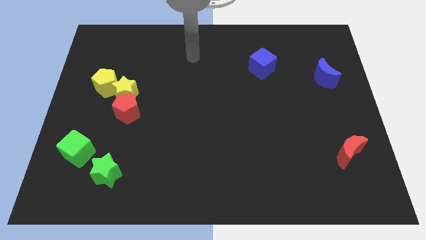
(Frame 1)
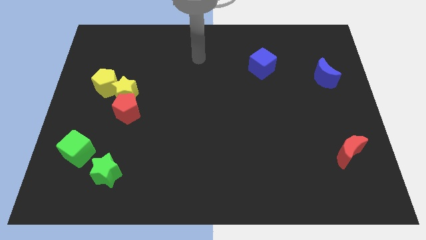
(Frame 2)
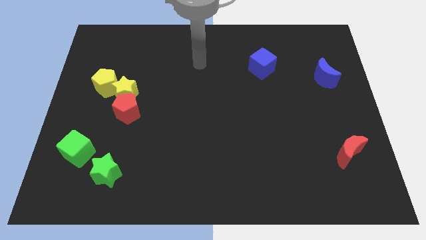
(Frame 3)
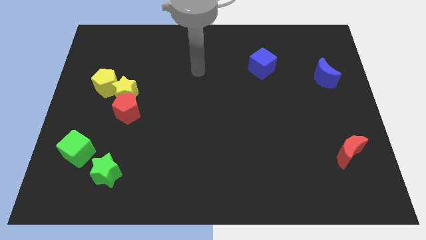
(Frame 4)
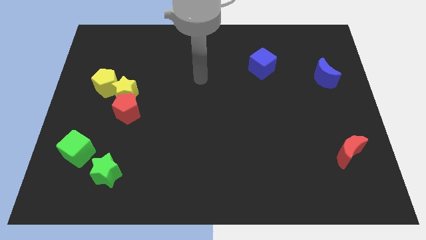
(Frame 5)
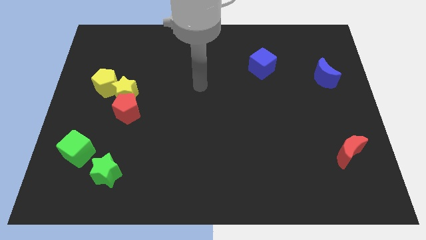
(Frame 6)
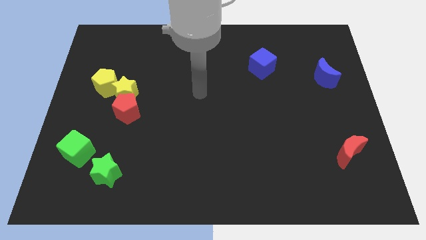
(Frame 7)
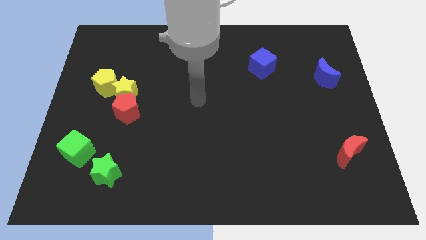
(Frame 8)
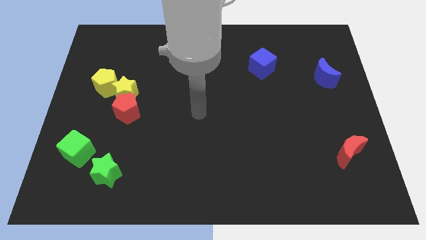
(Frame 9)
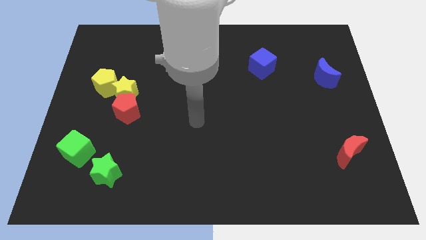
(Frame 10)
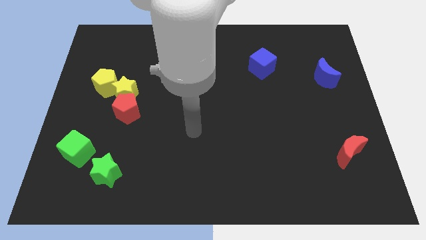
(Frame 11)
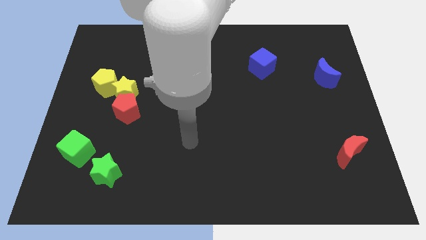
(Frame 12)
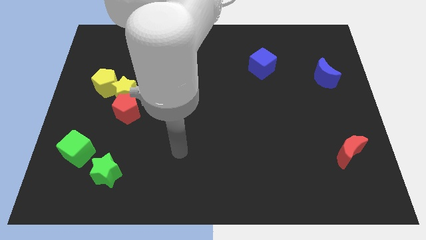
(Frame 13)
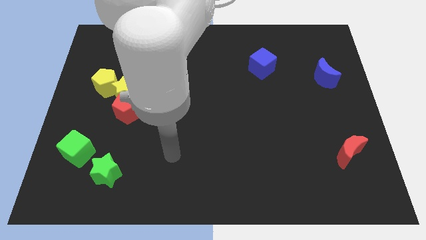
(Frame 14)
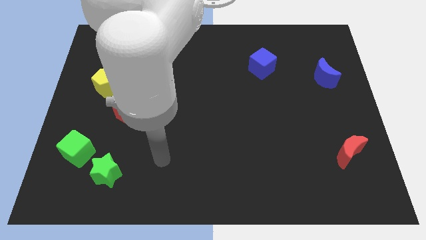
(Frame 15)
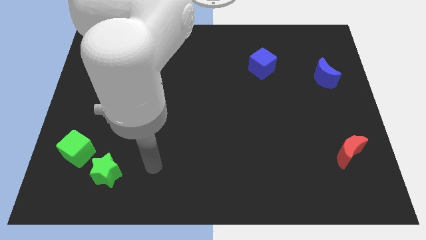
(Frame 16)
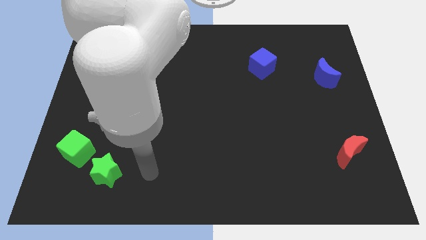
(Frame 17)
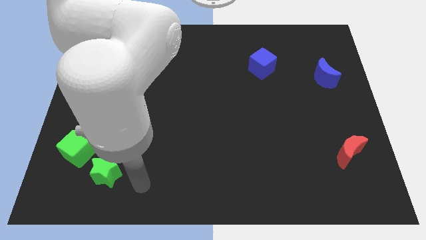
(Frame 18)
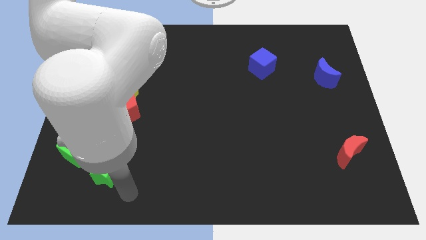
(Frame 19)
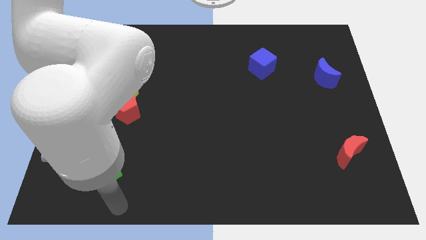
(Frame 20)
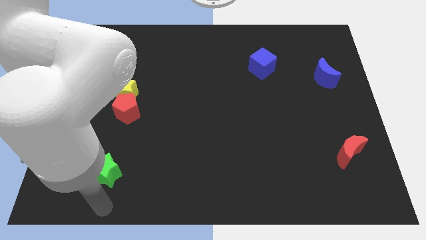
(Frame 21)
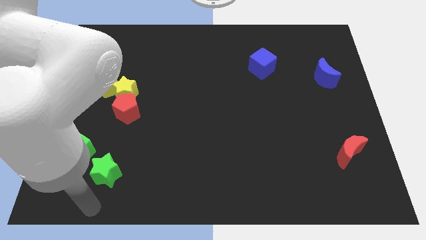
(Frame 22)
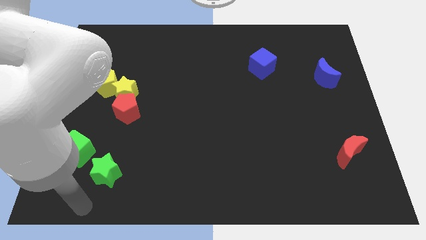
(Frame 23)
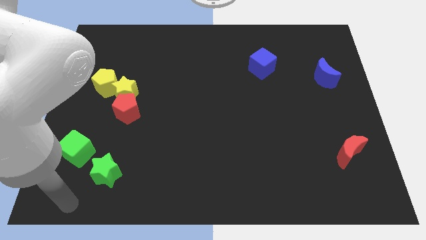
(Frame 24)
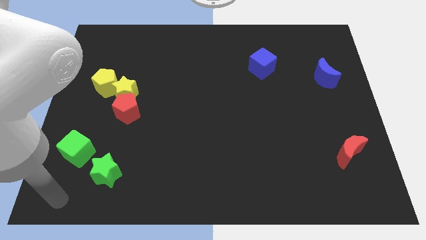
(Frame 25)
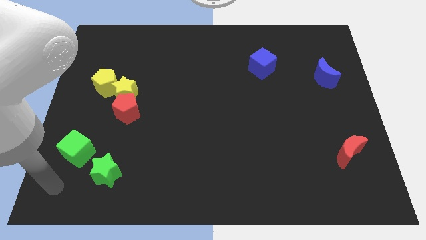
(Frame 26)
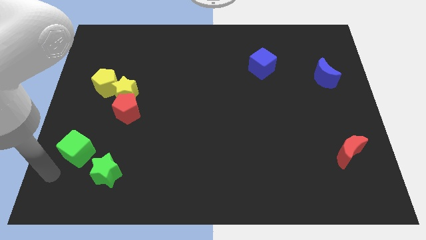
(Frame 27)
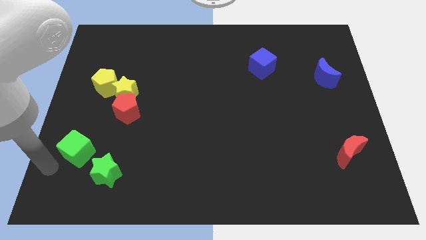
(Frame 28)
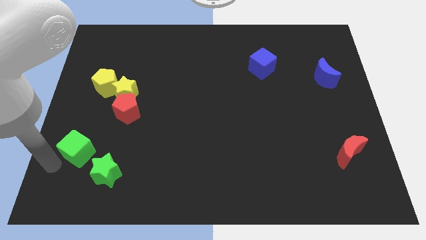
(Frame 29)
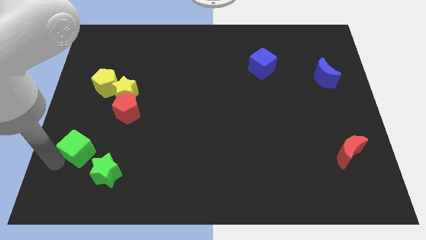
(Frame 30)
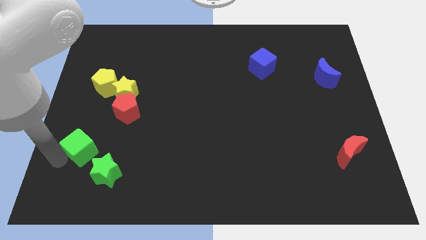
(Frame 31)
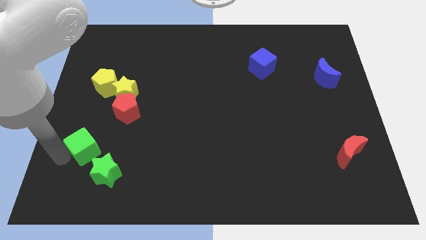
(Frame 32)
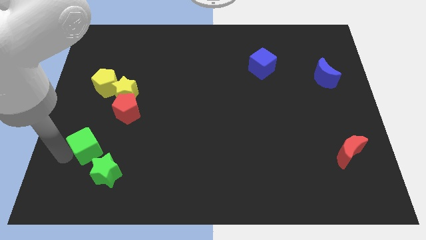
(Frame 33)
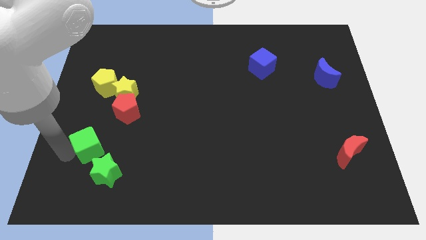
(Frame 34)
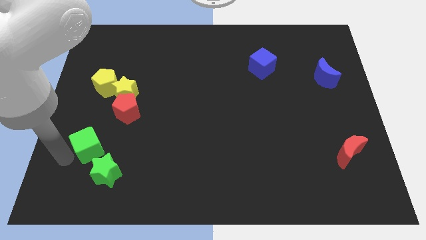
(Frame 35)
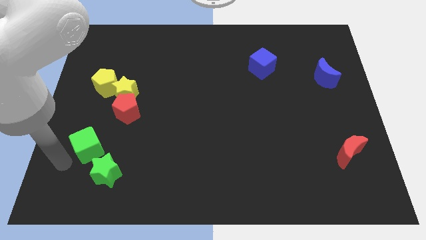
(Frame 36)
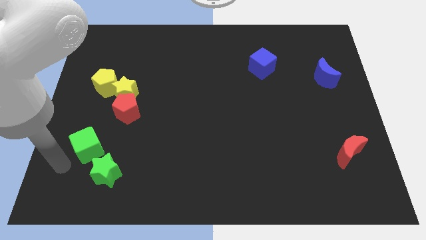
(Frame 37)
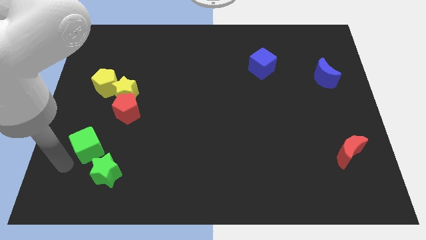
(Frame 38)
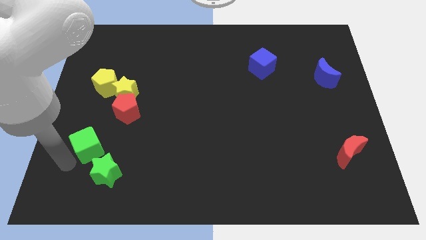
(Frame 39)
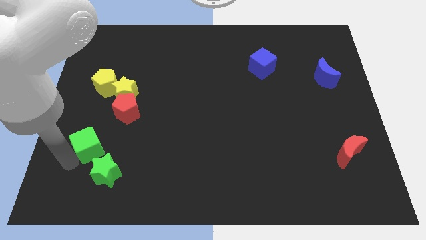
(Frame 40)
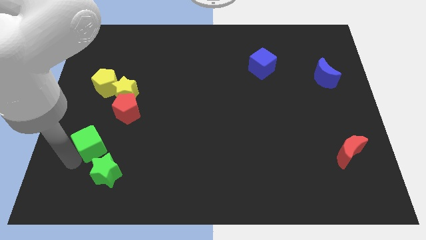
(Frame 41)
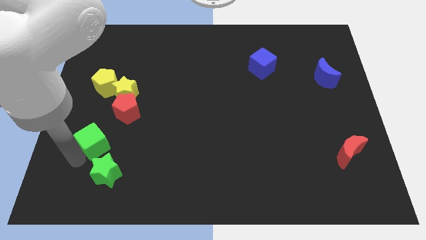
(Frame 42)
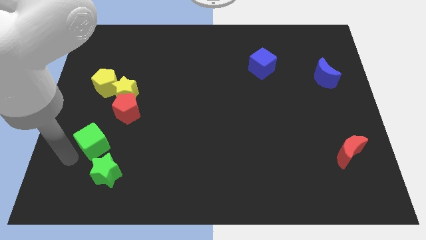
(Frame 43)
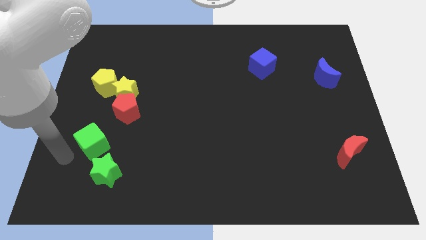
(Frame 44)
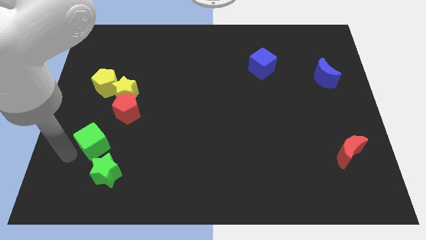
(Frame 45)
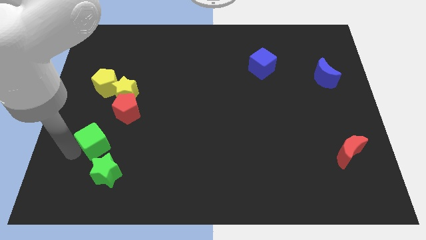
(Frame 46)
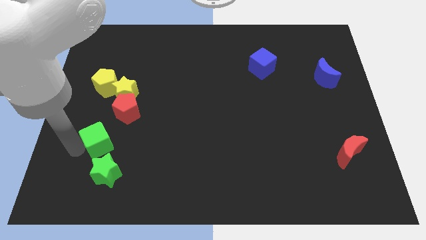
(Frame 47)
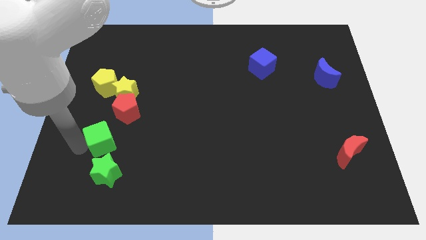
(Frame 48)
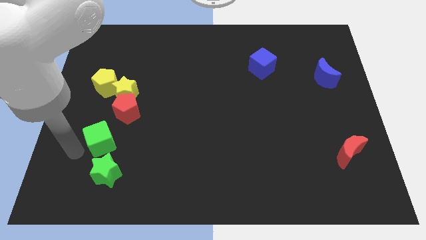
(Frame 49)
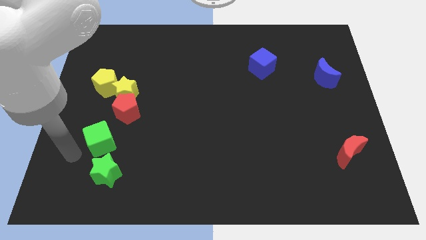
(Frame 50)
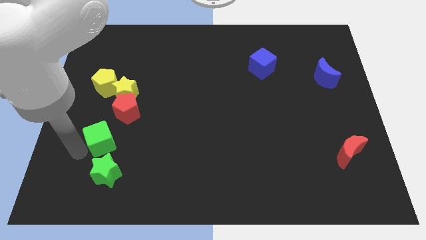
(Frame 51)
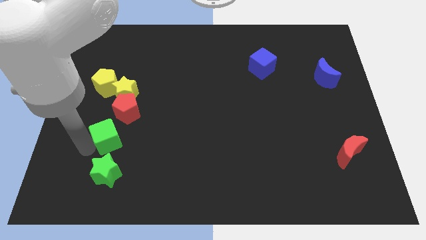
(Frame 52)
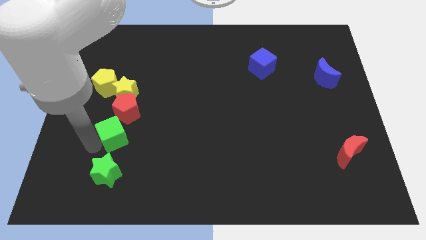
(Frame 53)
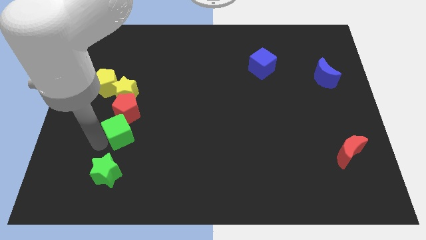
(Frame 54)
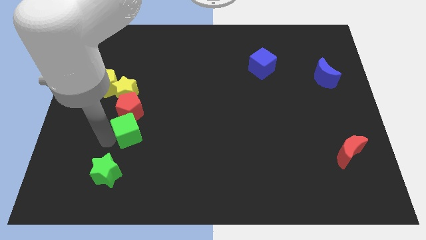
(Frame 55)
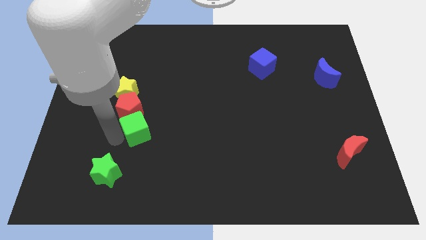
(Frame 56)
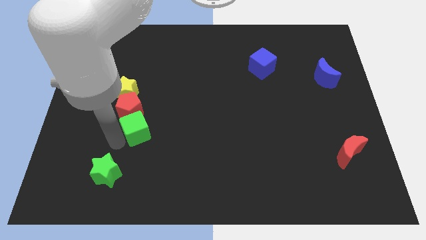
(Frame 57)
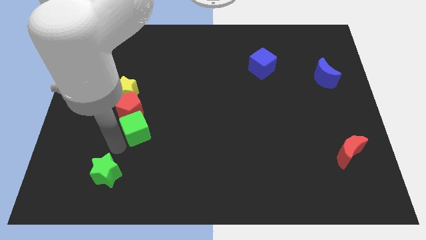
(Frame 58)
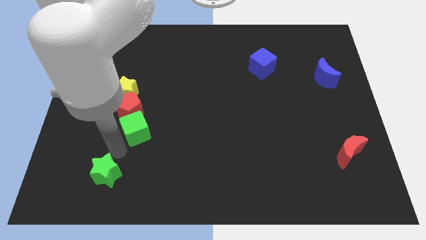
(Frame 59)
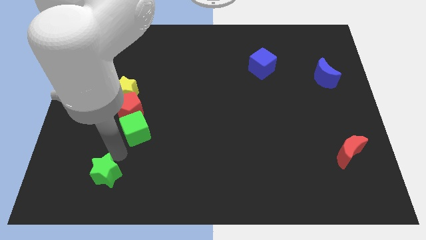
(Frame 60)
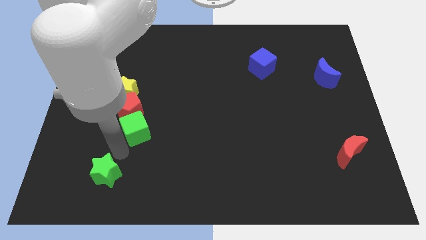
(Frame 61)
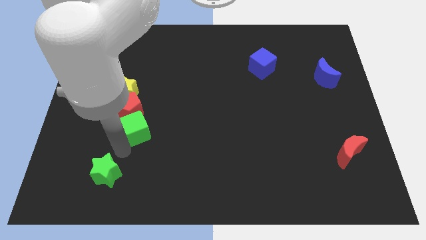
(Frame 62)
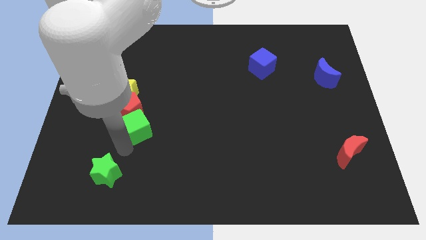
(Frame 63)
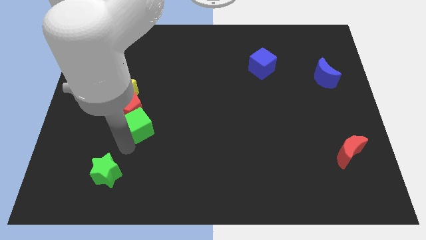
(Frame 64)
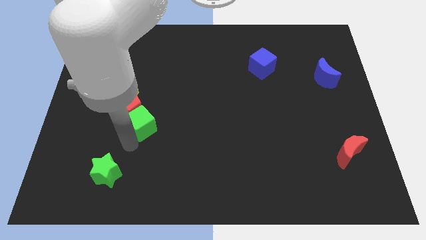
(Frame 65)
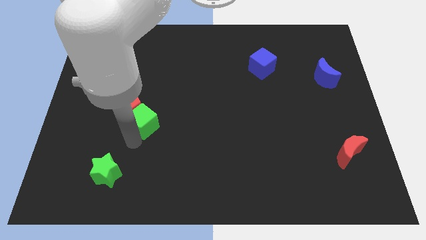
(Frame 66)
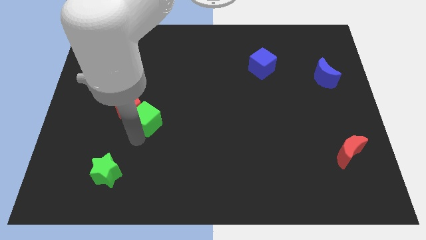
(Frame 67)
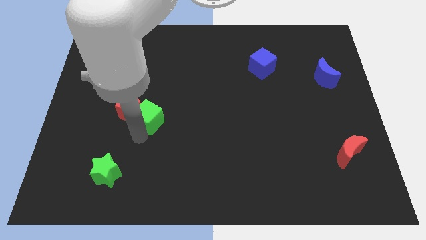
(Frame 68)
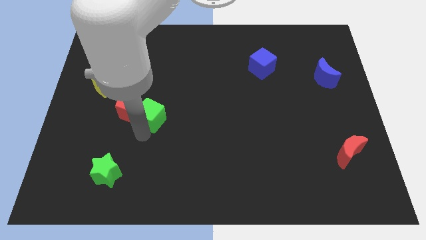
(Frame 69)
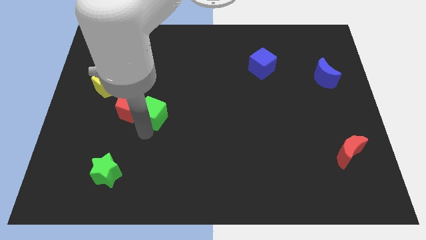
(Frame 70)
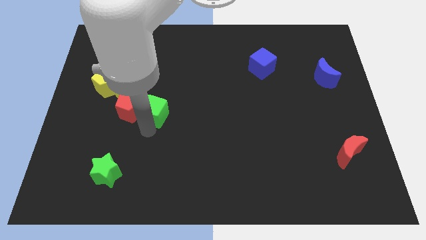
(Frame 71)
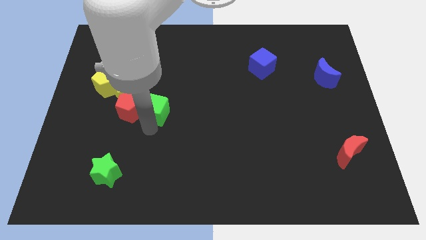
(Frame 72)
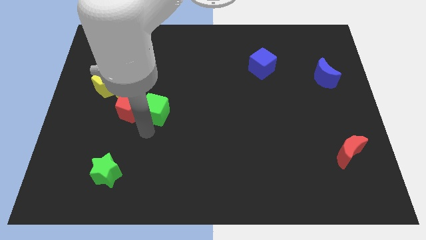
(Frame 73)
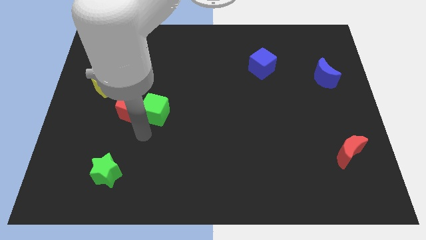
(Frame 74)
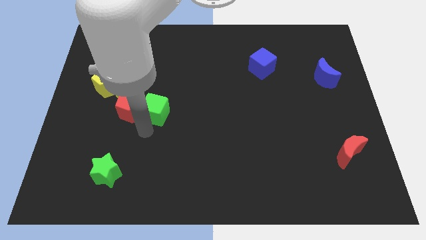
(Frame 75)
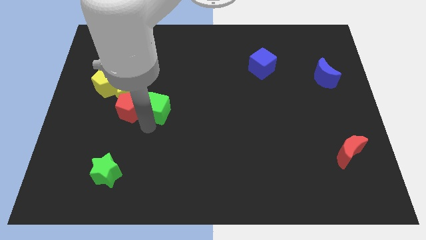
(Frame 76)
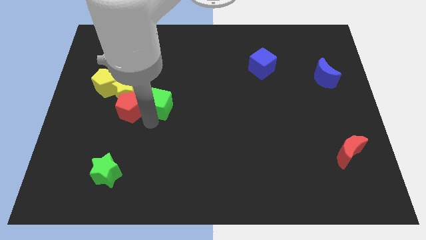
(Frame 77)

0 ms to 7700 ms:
move the green cube up and to the right diagonally

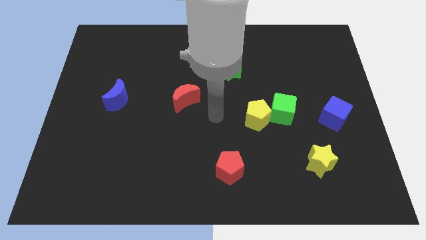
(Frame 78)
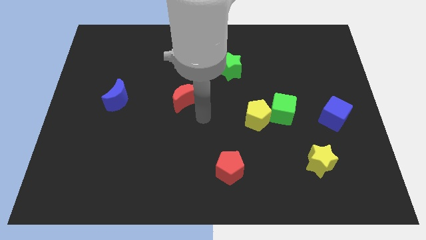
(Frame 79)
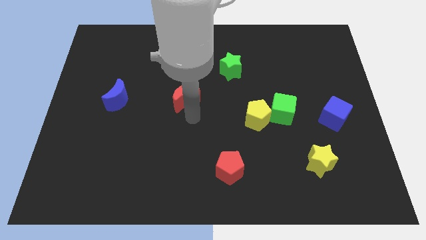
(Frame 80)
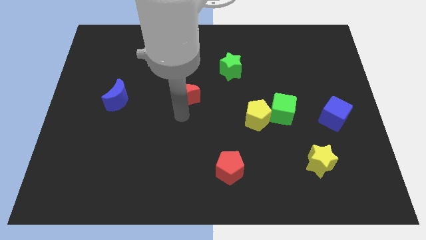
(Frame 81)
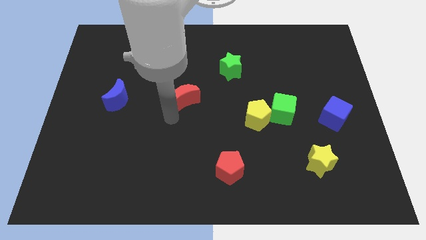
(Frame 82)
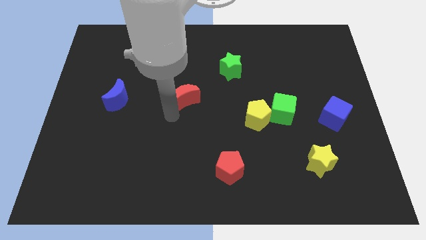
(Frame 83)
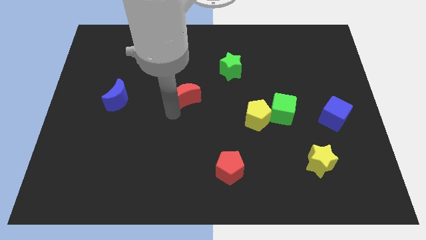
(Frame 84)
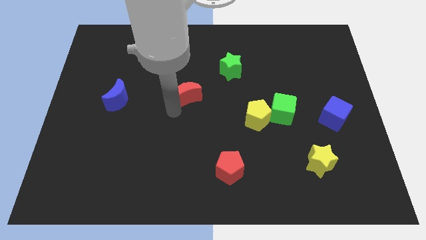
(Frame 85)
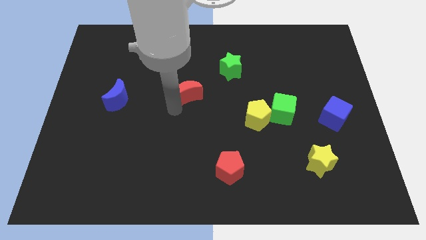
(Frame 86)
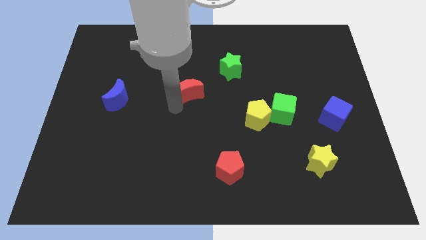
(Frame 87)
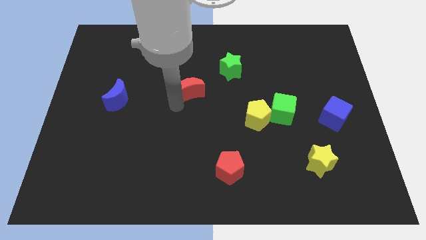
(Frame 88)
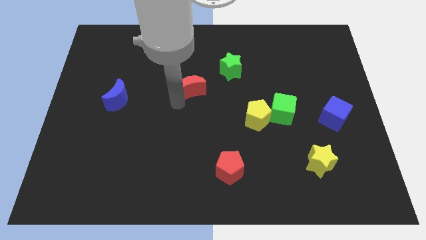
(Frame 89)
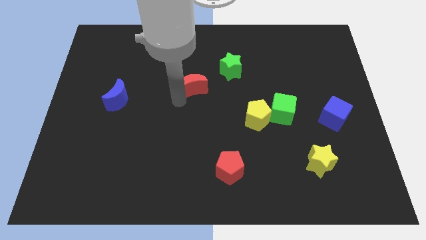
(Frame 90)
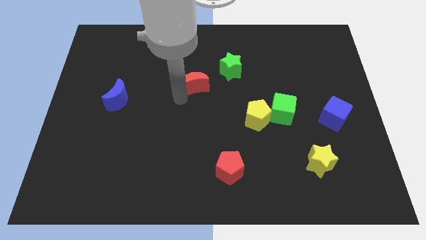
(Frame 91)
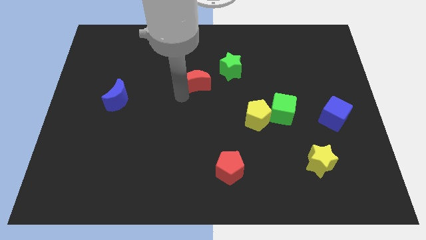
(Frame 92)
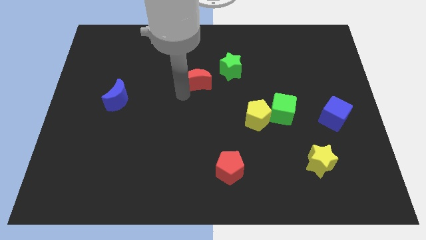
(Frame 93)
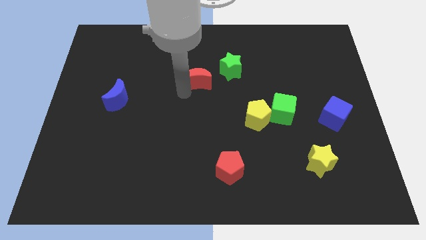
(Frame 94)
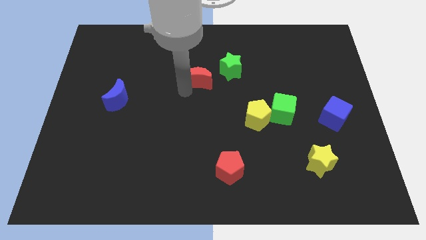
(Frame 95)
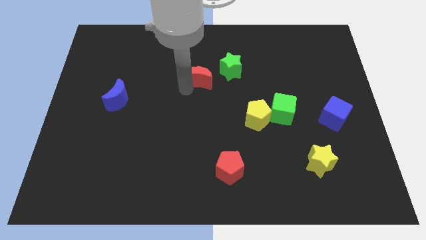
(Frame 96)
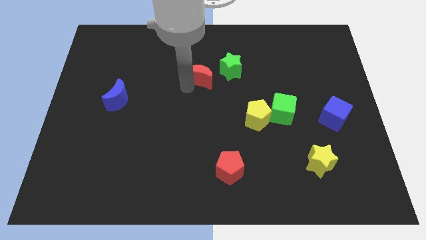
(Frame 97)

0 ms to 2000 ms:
slightly push the red moon upwards and to the right diagonally
